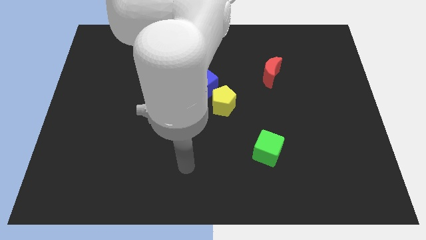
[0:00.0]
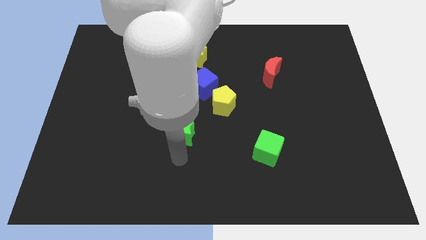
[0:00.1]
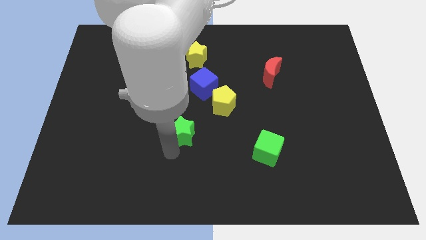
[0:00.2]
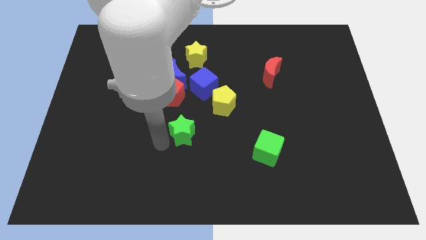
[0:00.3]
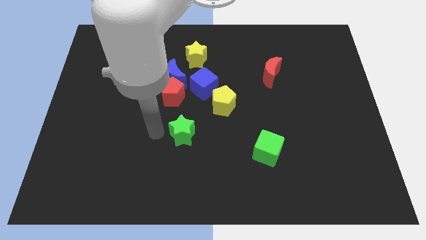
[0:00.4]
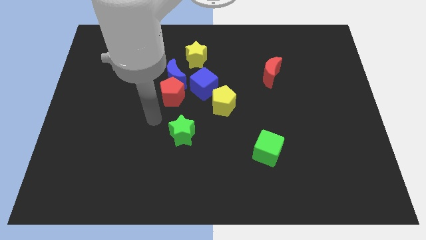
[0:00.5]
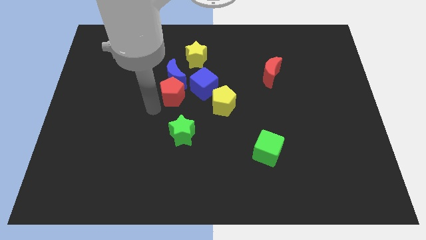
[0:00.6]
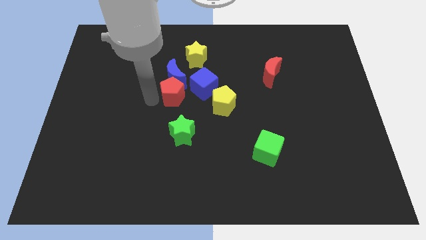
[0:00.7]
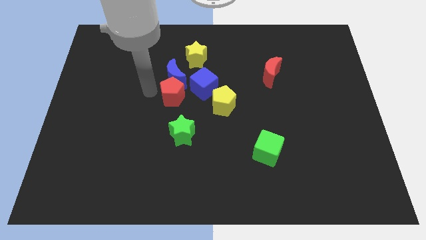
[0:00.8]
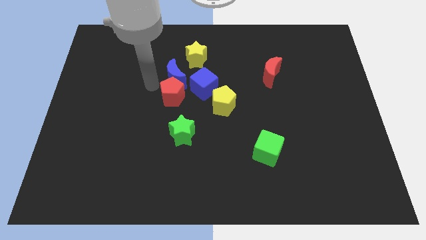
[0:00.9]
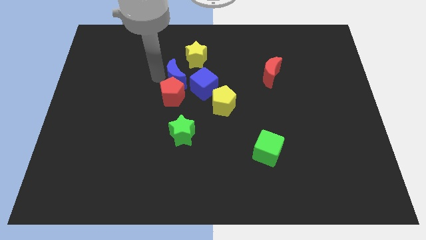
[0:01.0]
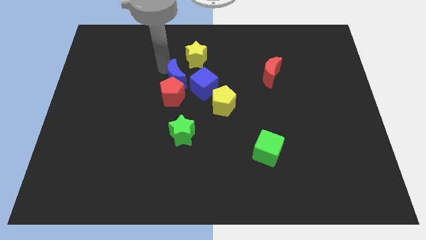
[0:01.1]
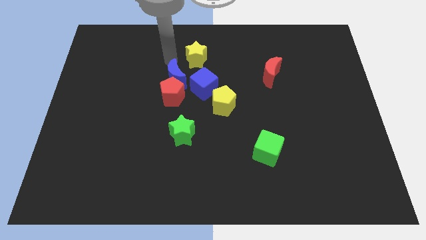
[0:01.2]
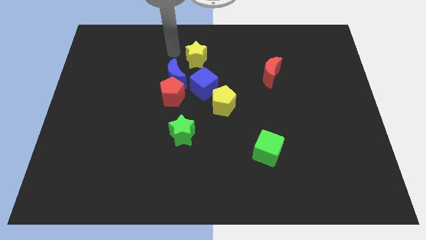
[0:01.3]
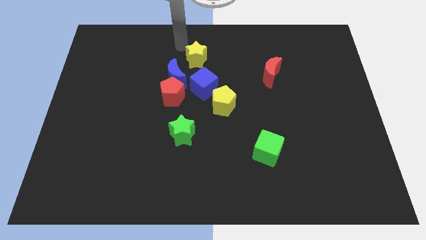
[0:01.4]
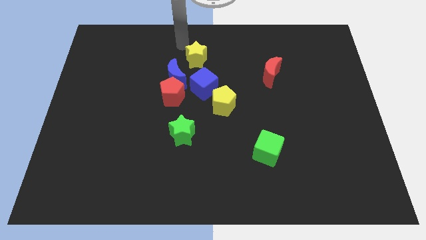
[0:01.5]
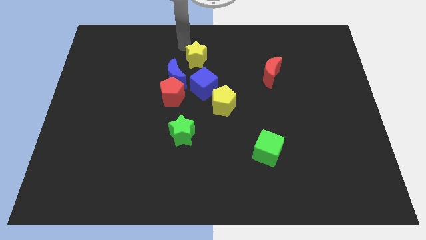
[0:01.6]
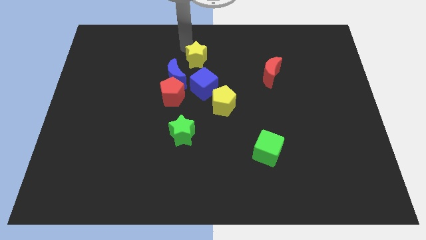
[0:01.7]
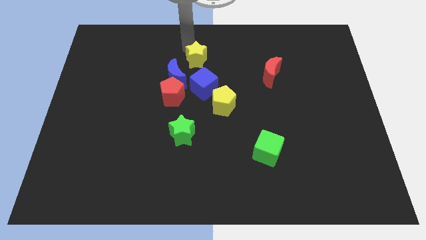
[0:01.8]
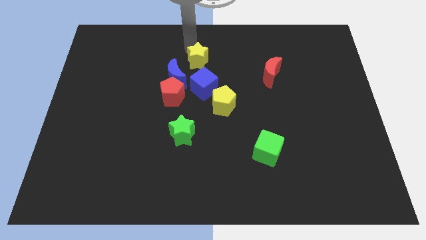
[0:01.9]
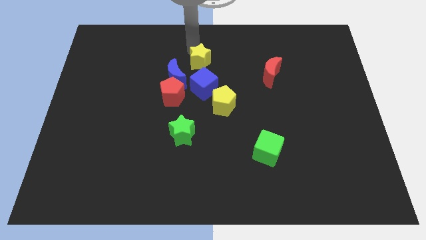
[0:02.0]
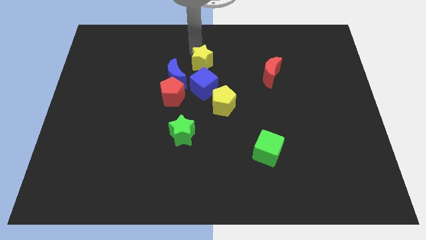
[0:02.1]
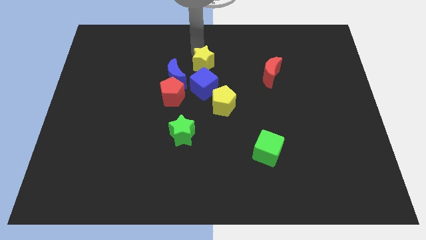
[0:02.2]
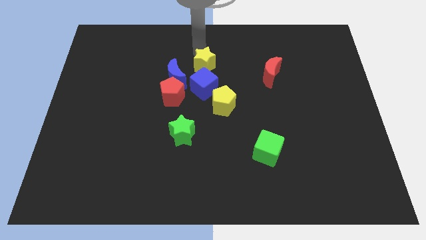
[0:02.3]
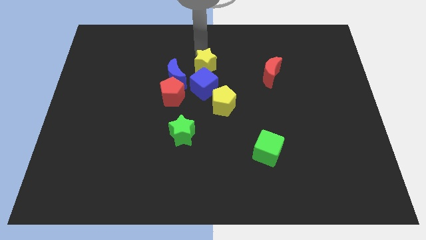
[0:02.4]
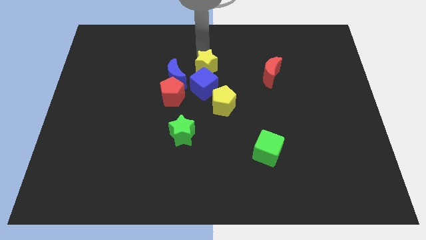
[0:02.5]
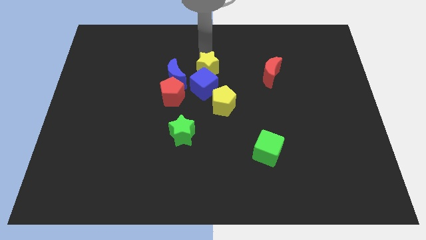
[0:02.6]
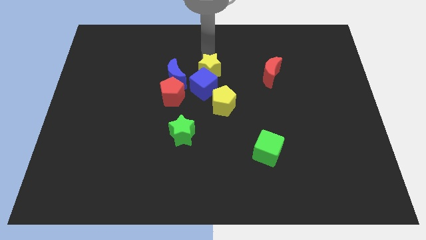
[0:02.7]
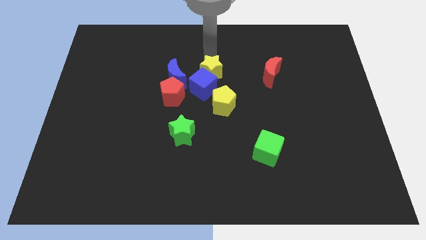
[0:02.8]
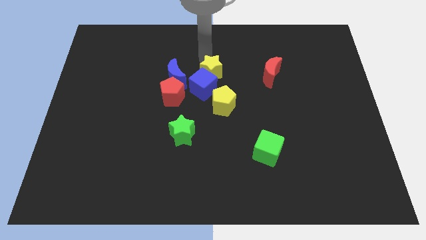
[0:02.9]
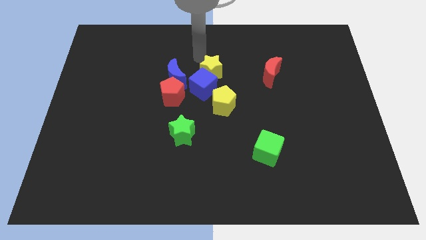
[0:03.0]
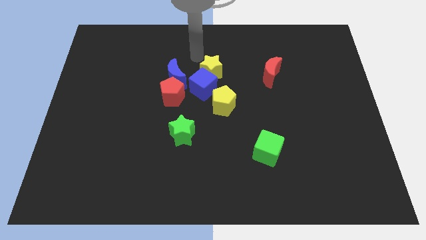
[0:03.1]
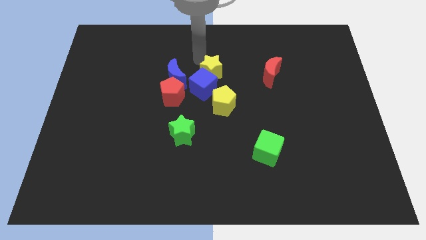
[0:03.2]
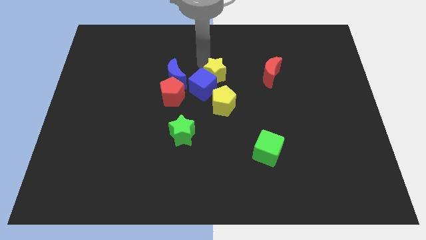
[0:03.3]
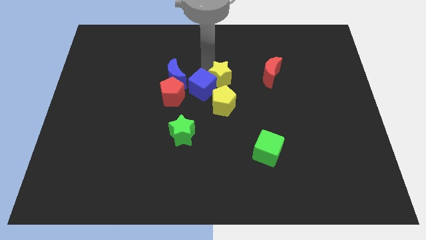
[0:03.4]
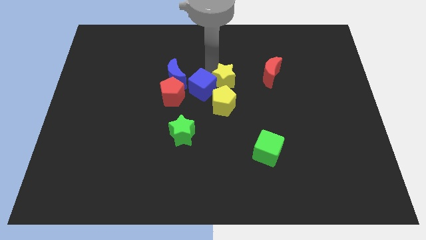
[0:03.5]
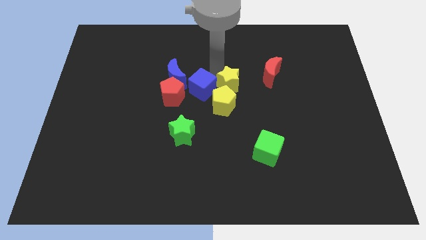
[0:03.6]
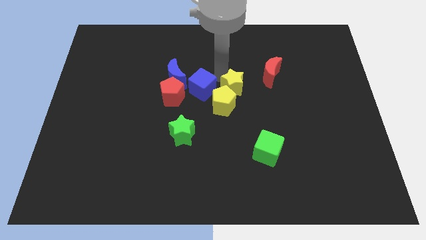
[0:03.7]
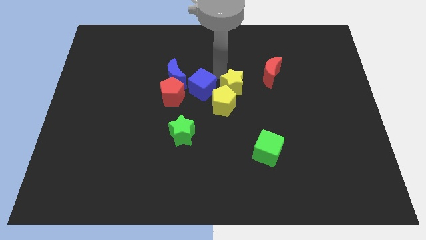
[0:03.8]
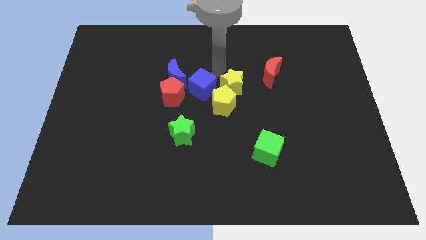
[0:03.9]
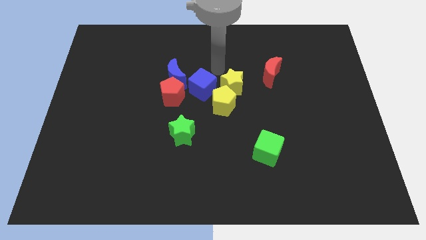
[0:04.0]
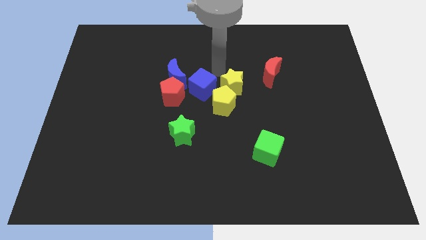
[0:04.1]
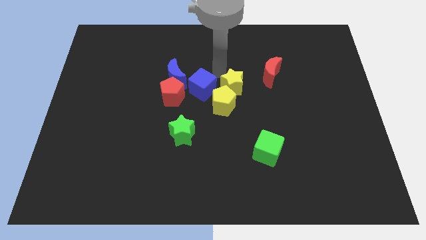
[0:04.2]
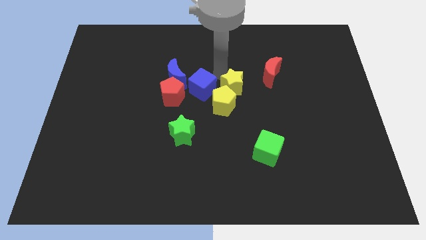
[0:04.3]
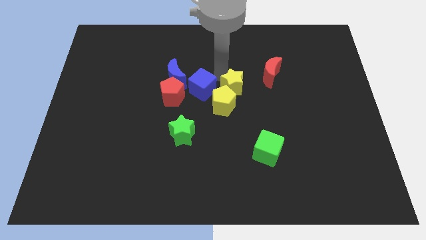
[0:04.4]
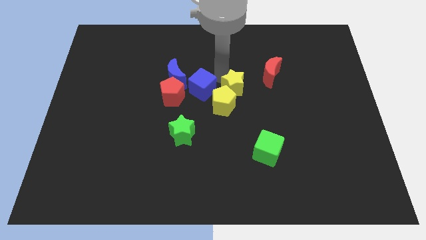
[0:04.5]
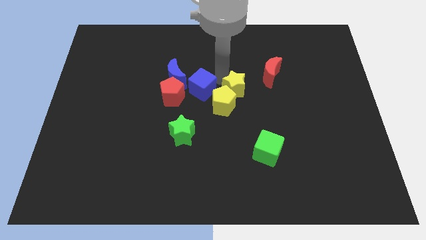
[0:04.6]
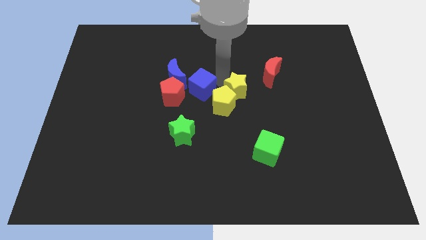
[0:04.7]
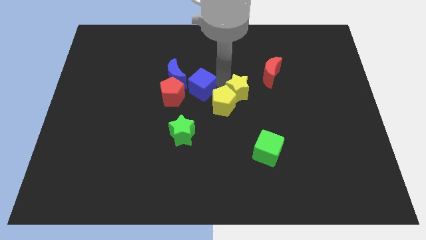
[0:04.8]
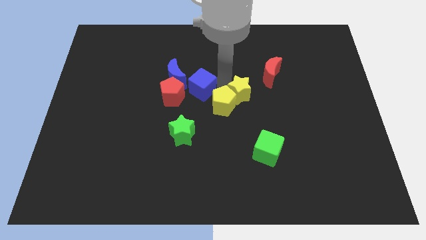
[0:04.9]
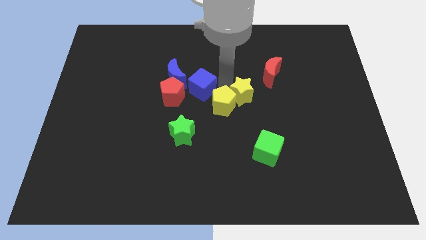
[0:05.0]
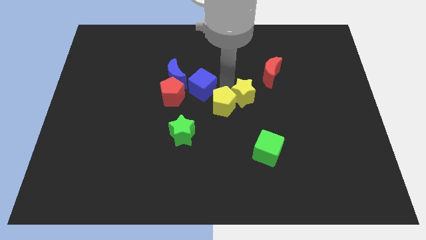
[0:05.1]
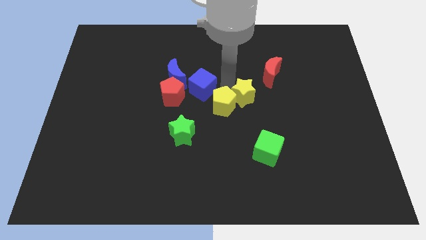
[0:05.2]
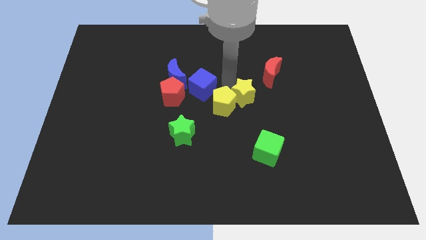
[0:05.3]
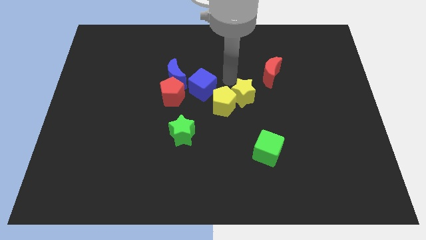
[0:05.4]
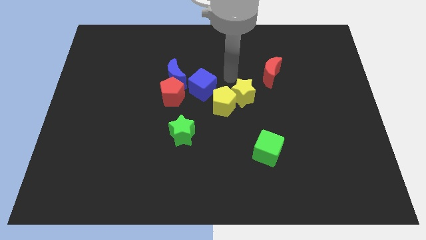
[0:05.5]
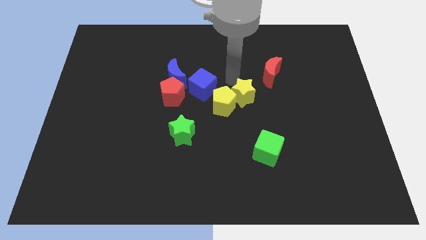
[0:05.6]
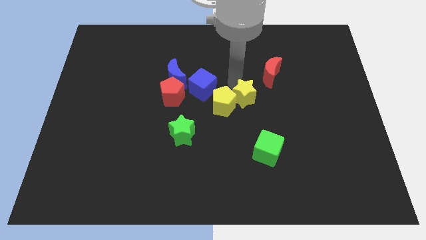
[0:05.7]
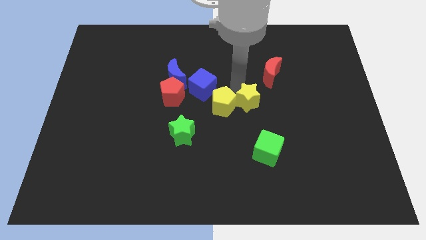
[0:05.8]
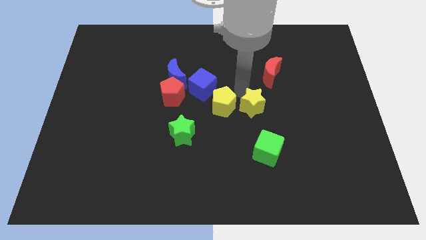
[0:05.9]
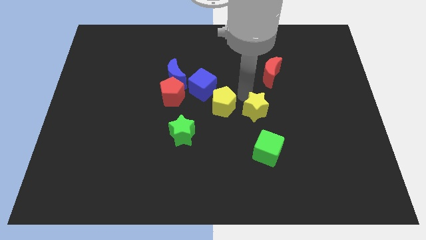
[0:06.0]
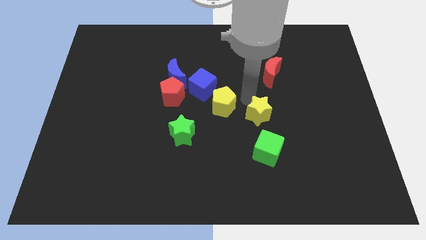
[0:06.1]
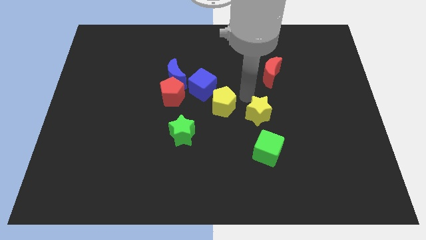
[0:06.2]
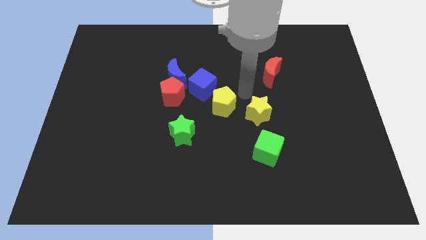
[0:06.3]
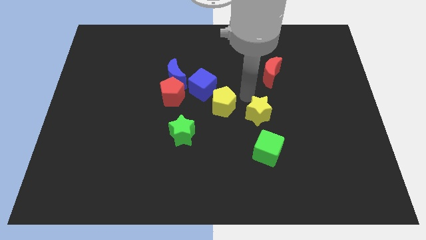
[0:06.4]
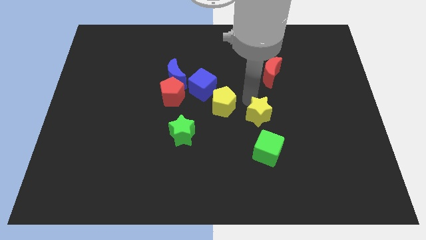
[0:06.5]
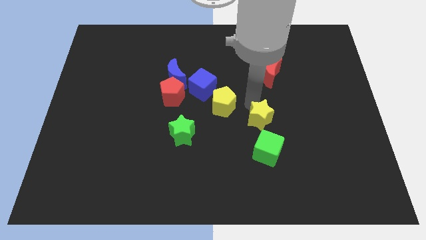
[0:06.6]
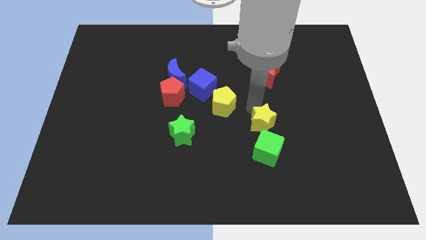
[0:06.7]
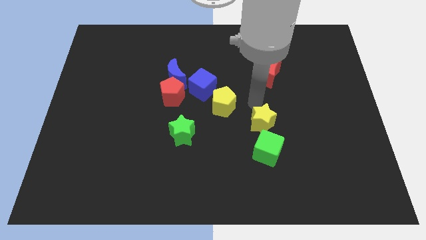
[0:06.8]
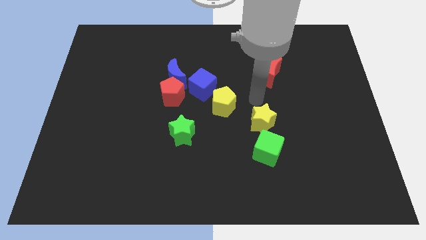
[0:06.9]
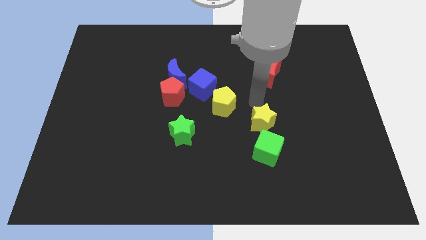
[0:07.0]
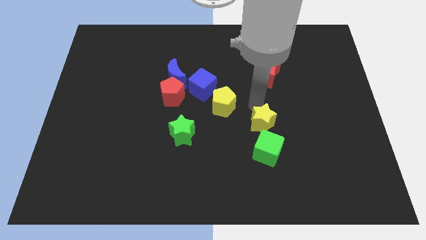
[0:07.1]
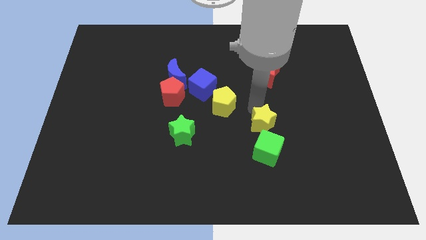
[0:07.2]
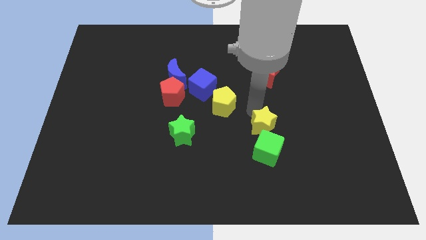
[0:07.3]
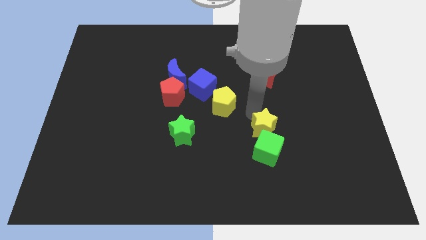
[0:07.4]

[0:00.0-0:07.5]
put the yellow star close to the green cube
